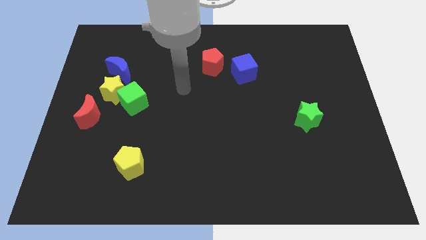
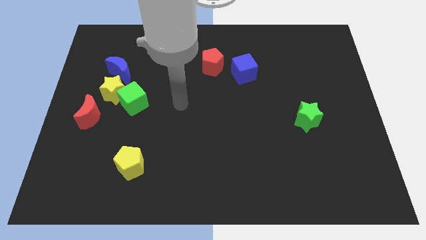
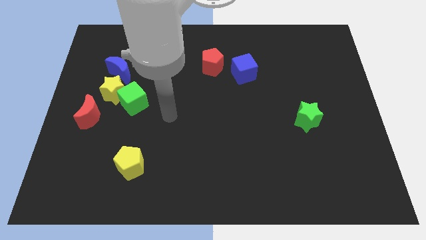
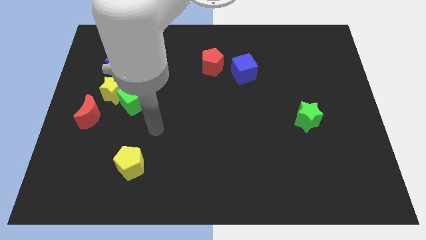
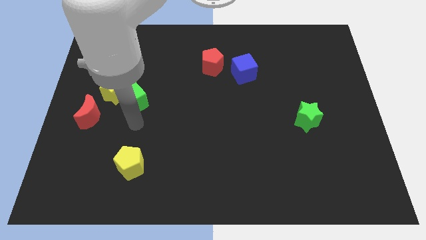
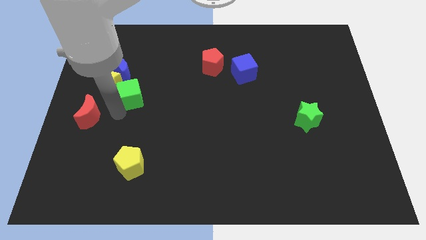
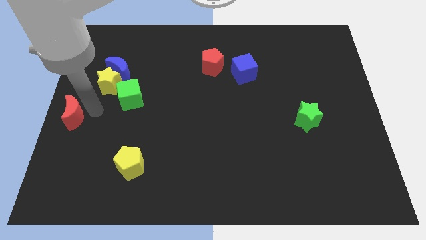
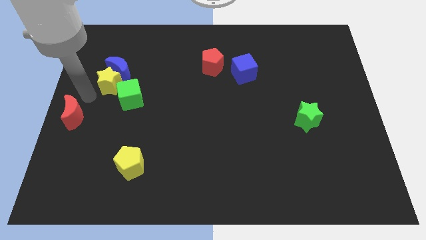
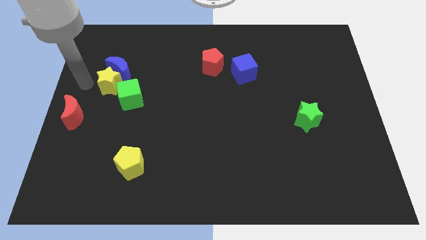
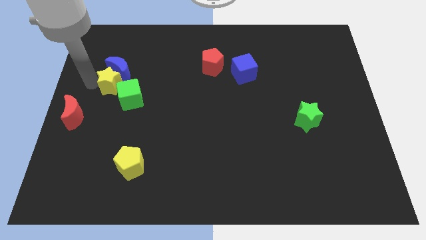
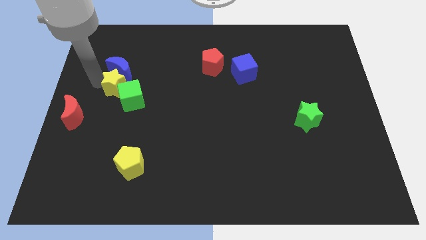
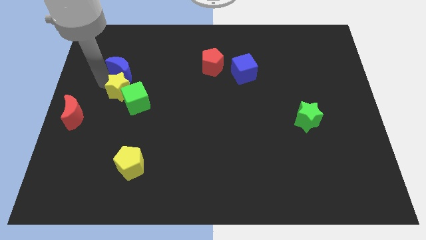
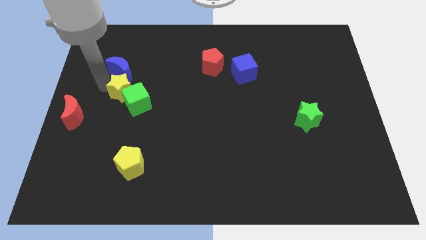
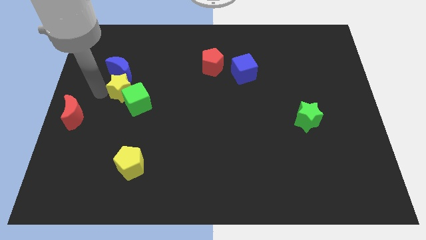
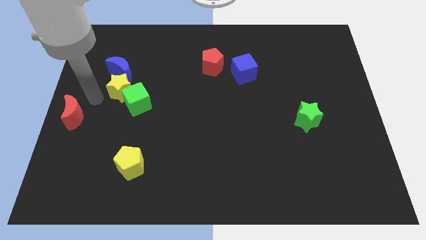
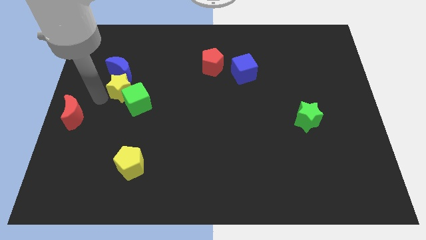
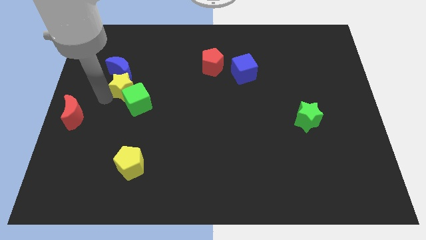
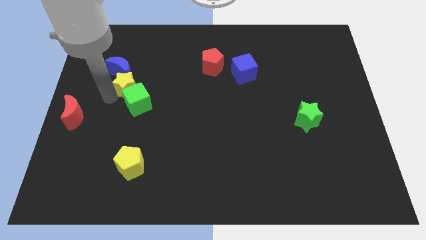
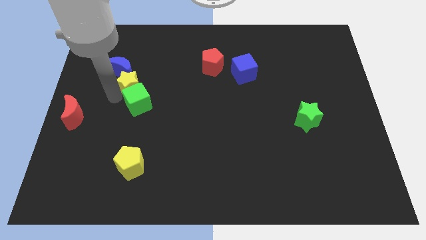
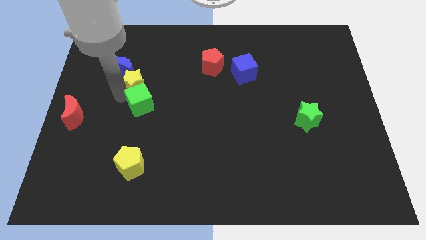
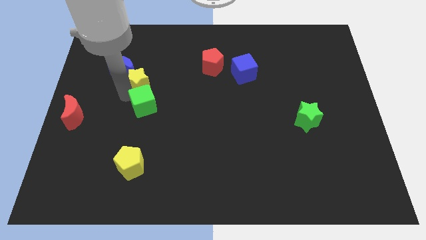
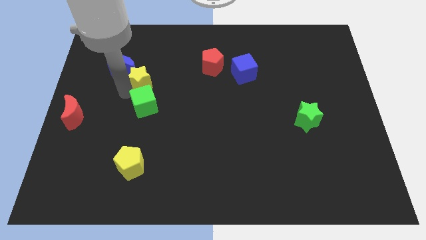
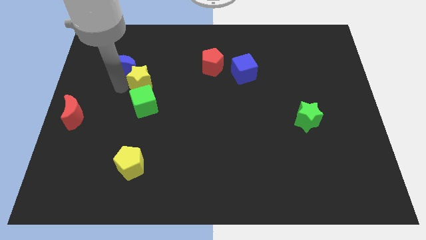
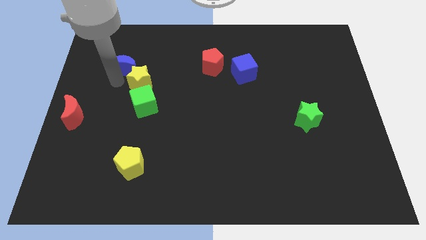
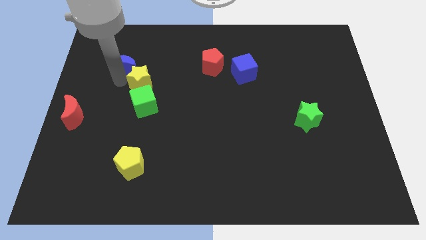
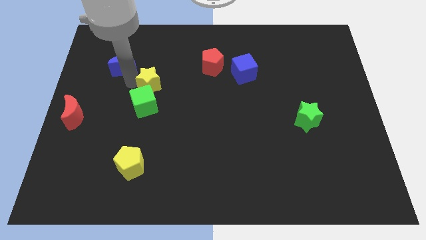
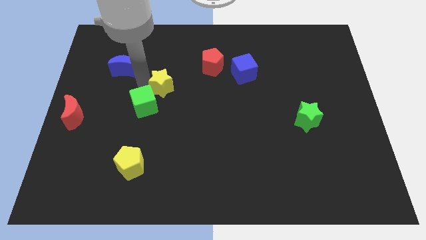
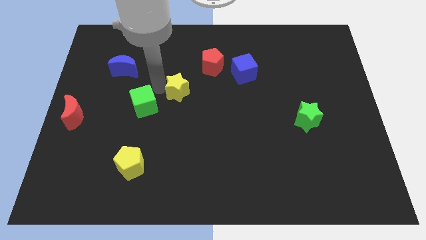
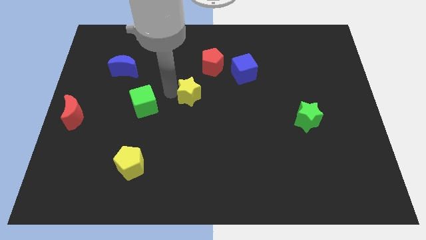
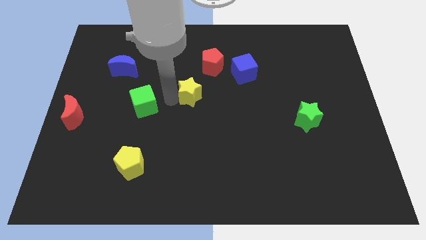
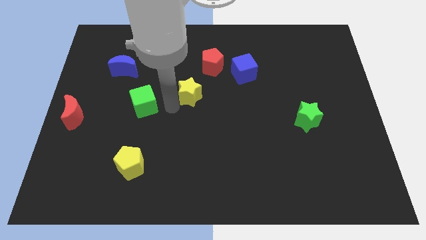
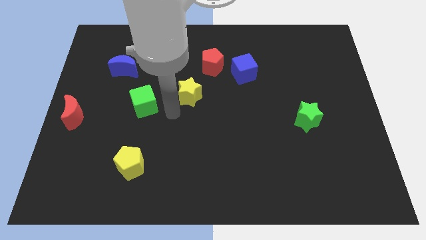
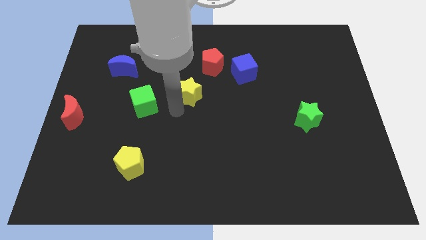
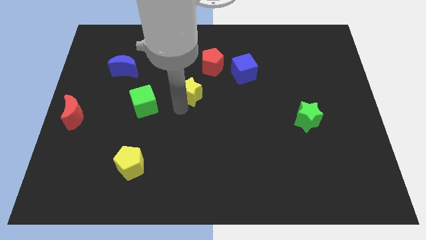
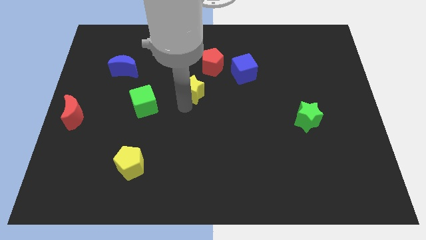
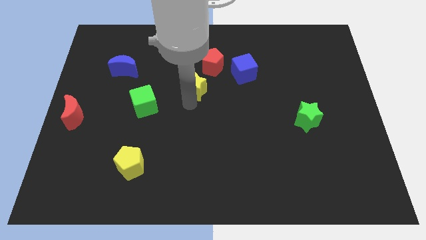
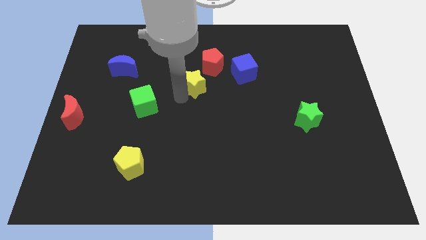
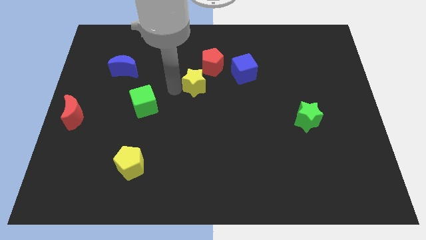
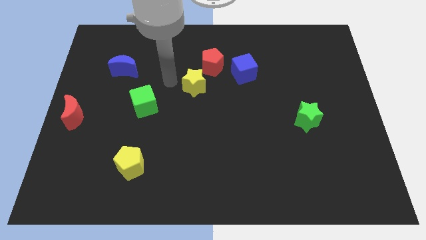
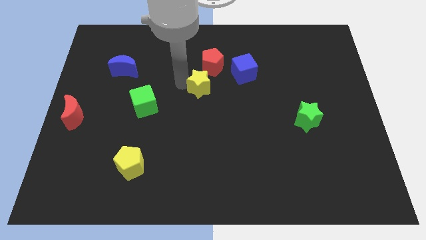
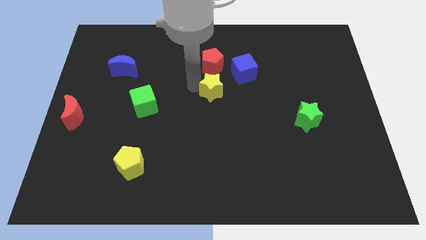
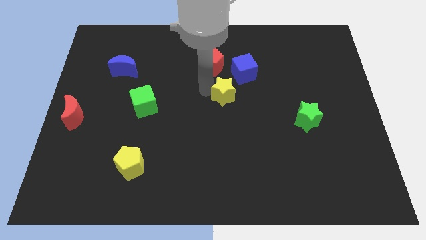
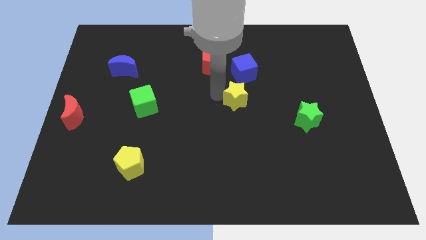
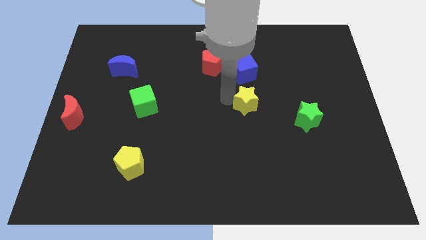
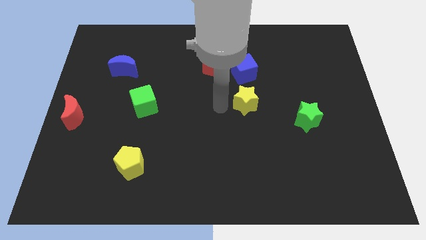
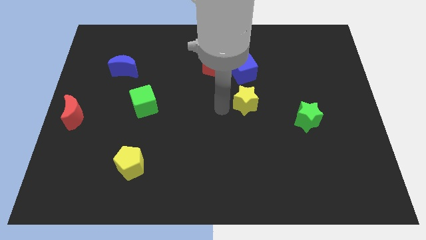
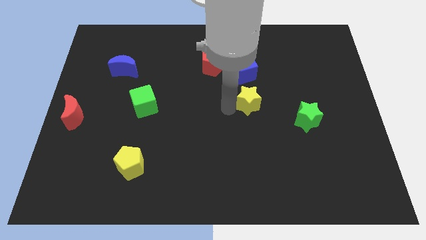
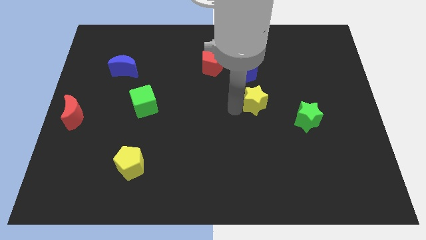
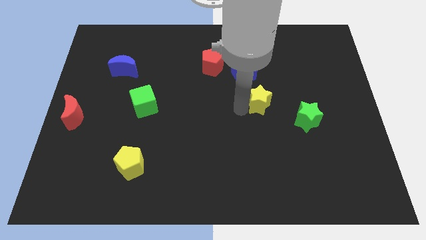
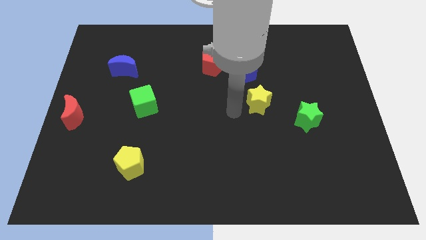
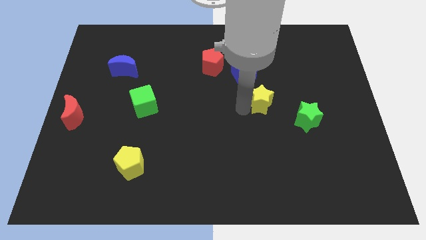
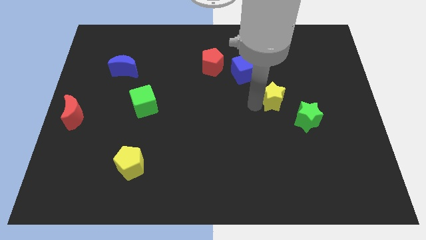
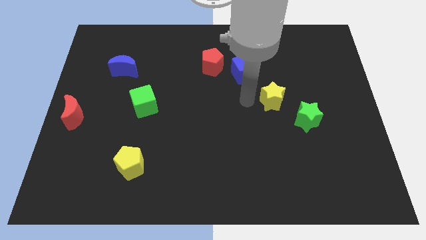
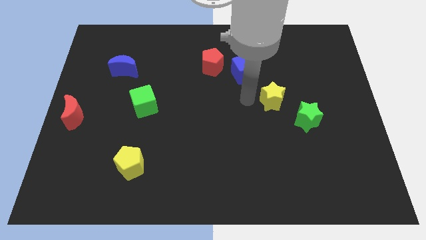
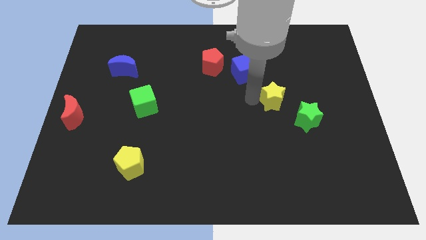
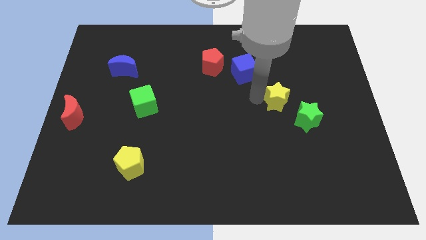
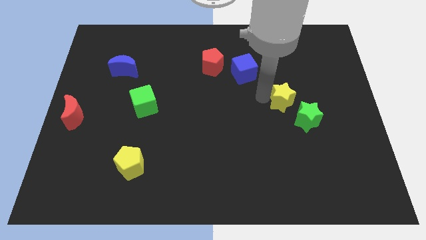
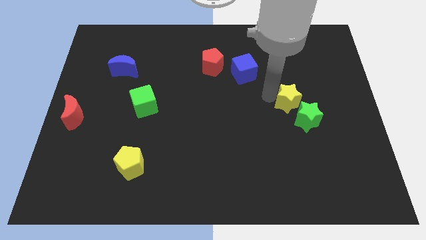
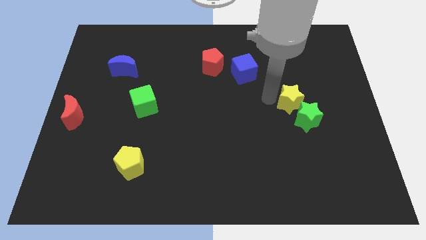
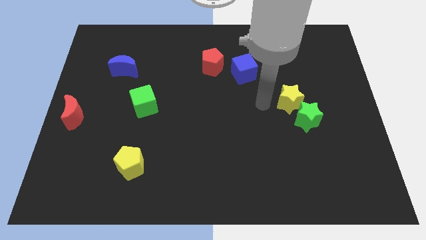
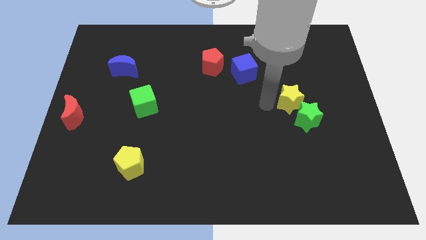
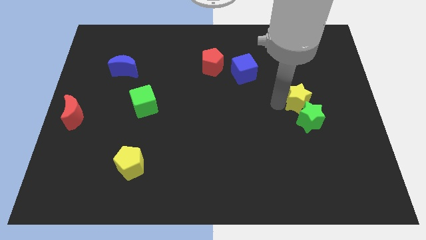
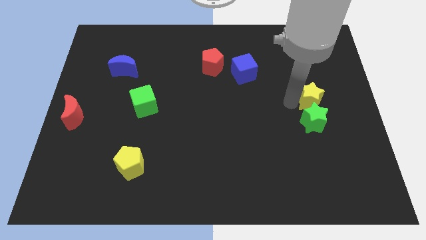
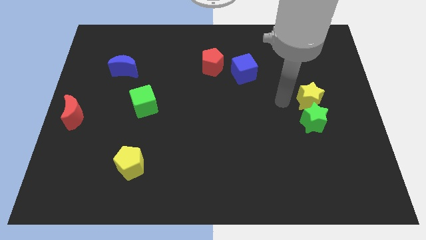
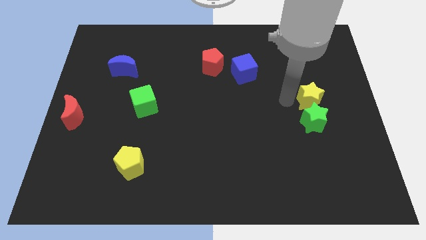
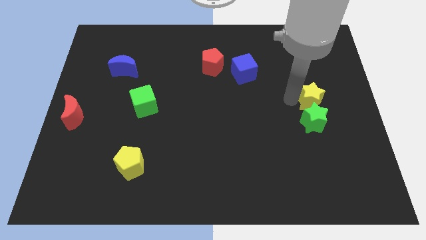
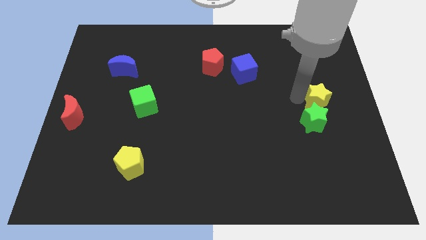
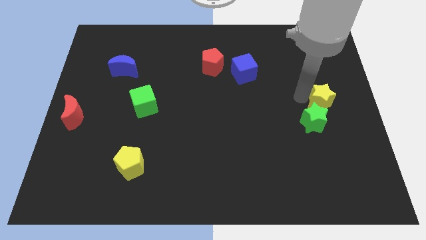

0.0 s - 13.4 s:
put the yellow star to the right side of the board
